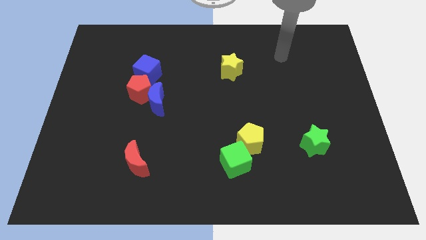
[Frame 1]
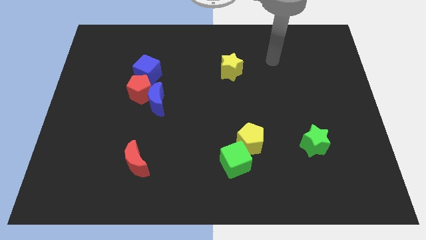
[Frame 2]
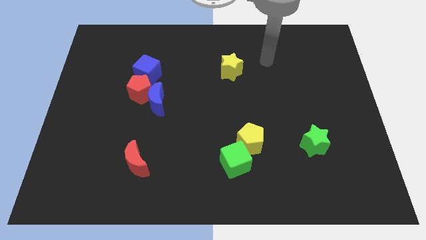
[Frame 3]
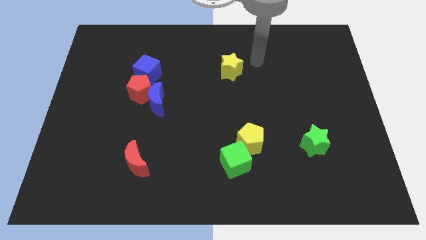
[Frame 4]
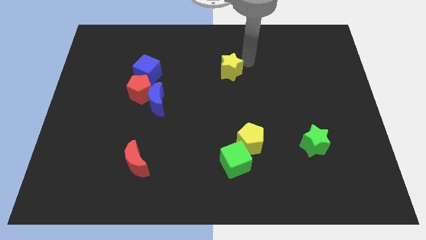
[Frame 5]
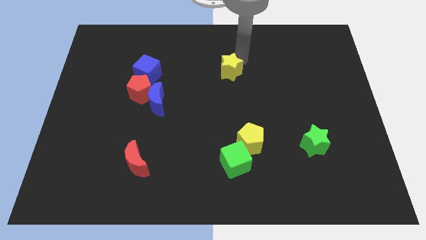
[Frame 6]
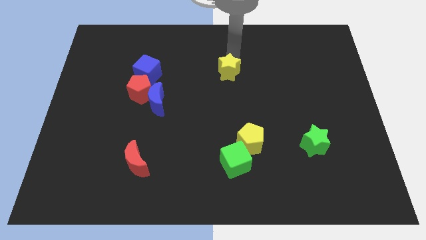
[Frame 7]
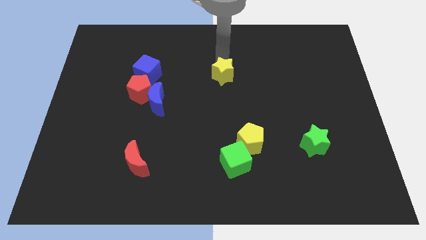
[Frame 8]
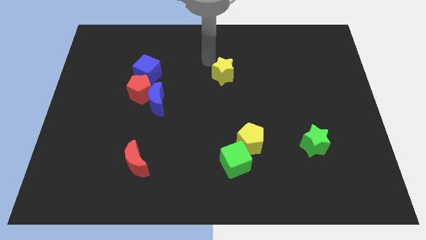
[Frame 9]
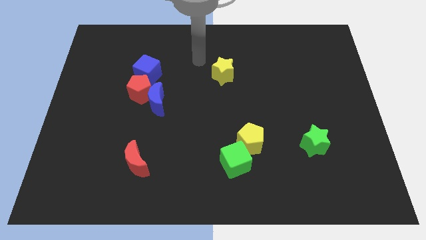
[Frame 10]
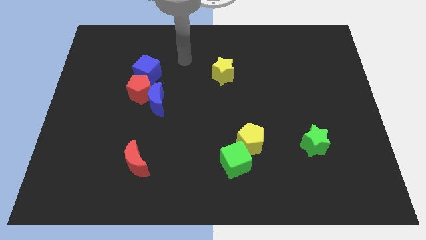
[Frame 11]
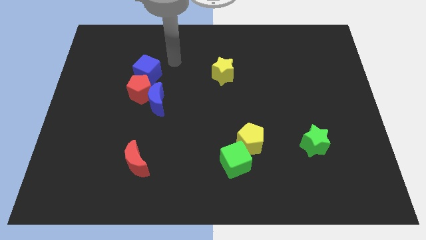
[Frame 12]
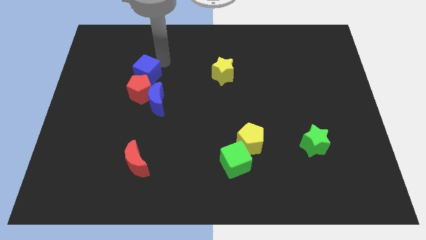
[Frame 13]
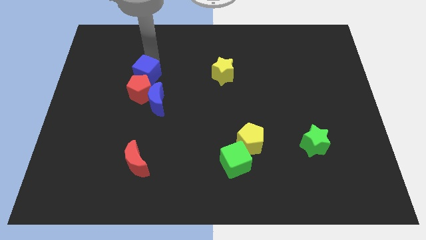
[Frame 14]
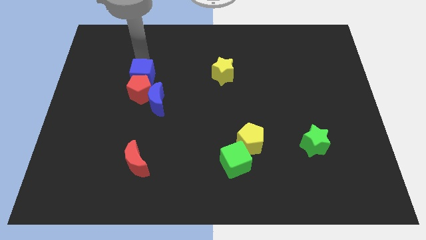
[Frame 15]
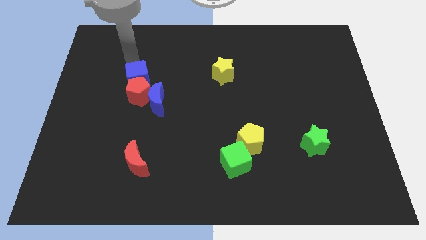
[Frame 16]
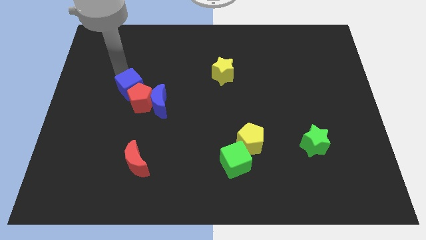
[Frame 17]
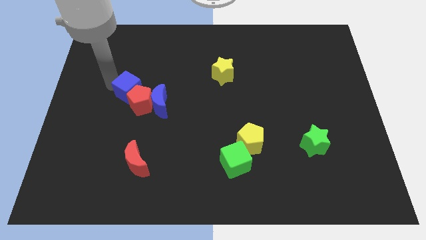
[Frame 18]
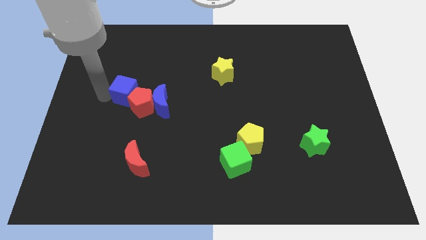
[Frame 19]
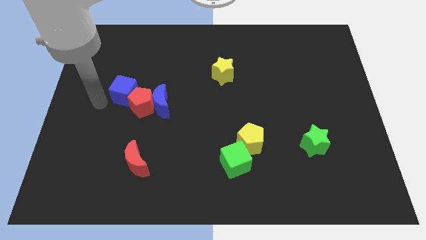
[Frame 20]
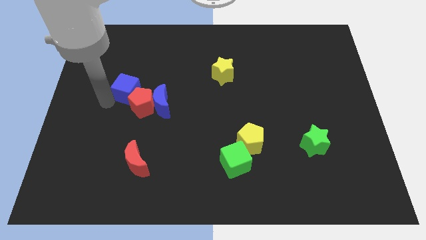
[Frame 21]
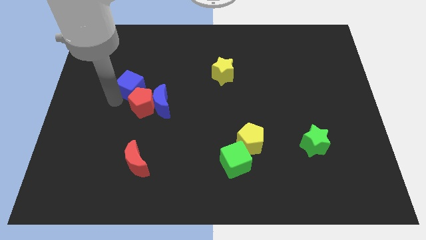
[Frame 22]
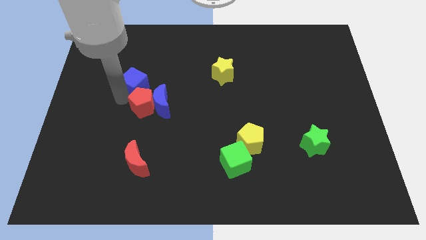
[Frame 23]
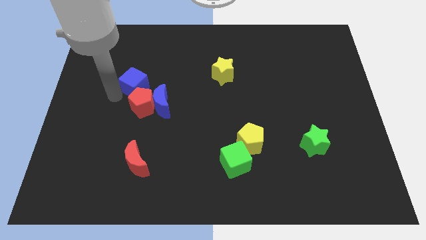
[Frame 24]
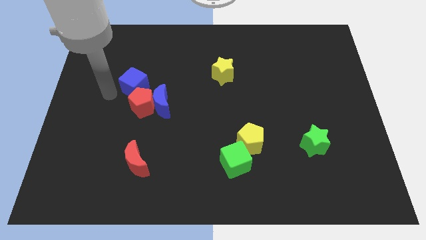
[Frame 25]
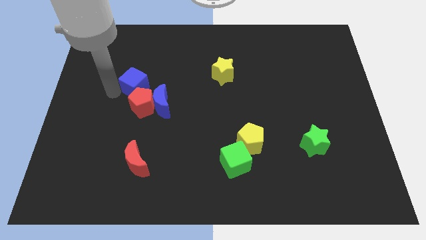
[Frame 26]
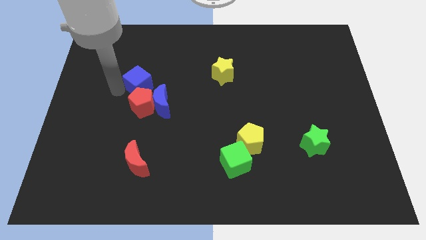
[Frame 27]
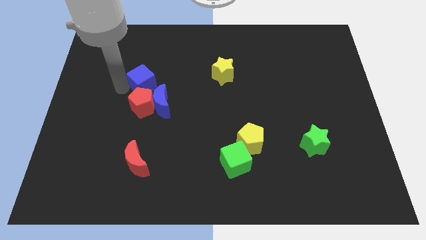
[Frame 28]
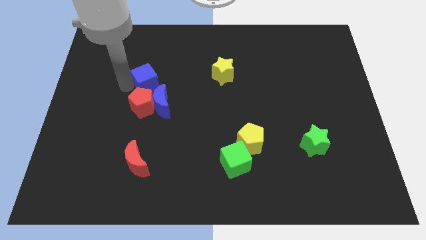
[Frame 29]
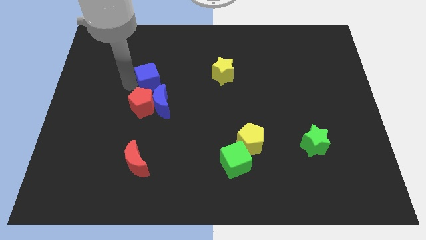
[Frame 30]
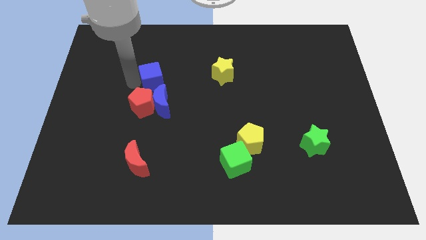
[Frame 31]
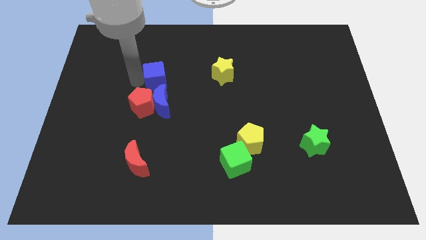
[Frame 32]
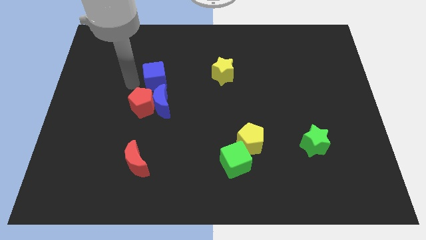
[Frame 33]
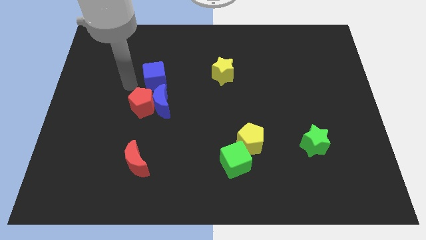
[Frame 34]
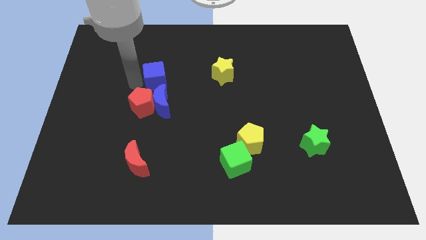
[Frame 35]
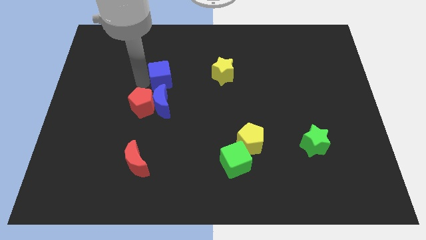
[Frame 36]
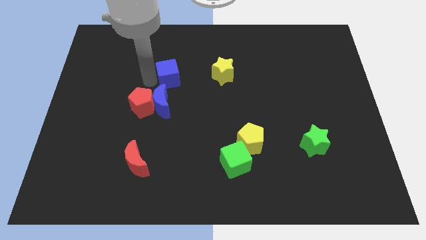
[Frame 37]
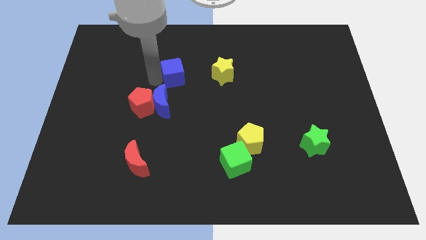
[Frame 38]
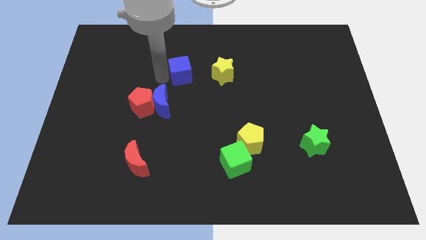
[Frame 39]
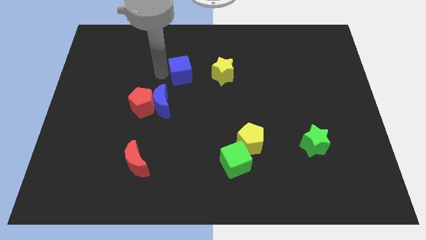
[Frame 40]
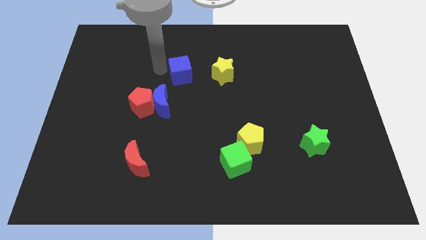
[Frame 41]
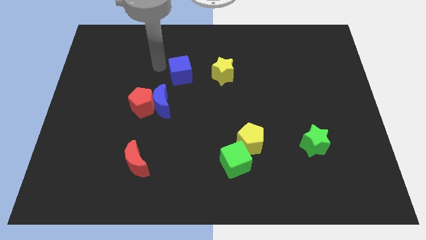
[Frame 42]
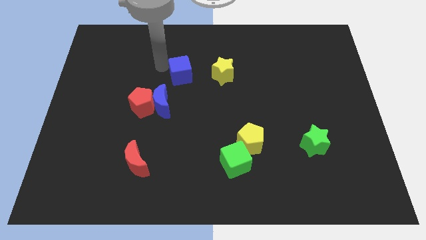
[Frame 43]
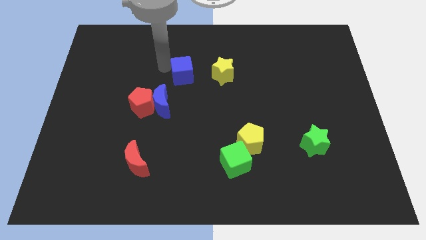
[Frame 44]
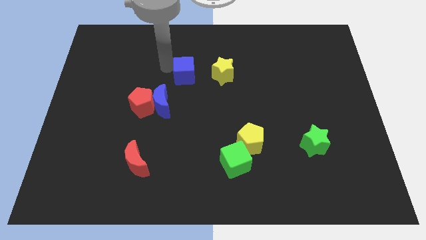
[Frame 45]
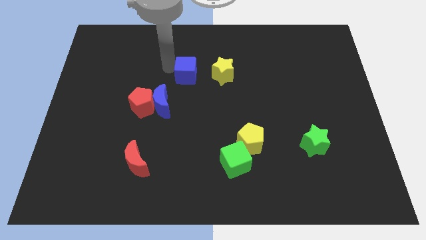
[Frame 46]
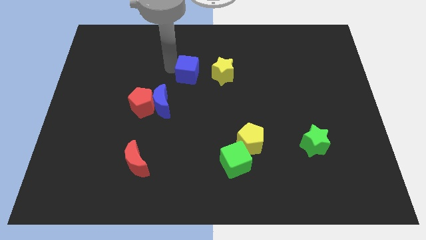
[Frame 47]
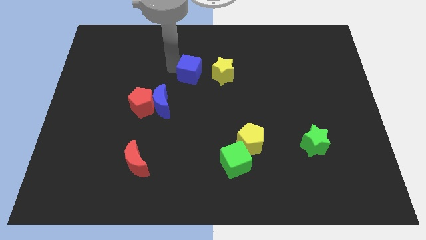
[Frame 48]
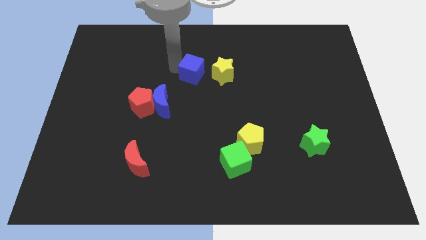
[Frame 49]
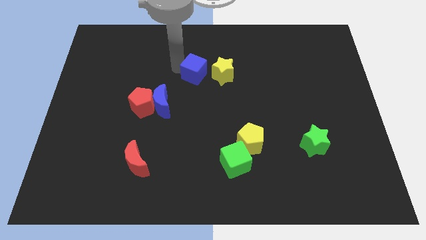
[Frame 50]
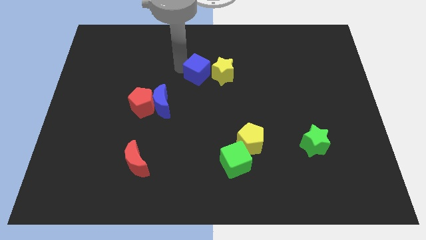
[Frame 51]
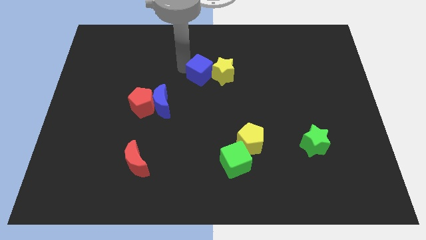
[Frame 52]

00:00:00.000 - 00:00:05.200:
push the blue cube to the bottom left side of the yellow star

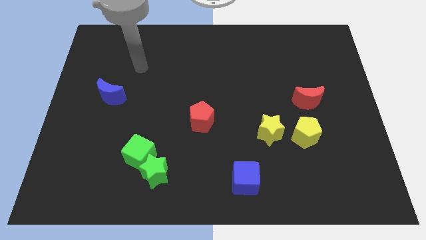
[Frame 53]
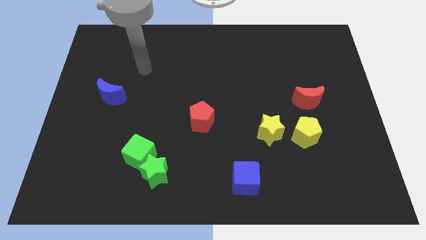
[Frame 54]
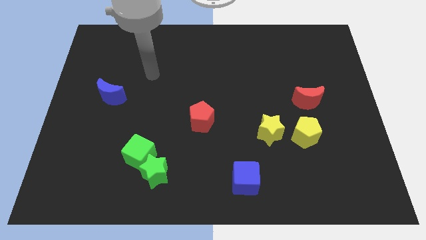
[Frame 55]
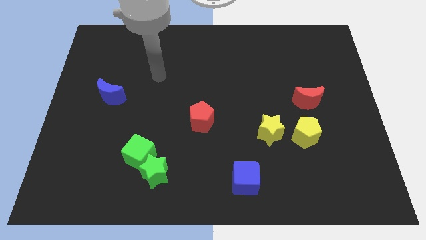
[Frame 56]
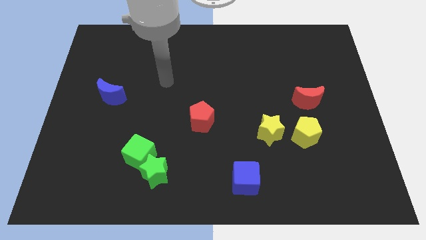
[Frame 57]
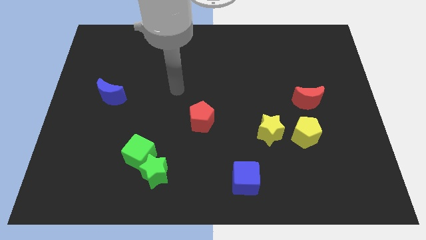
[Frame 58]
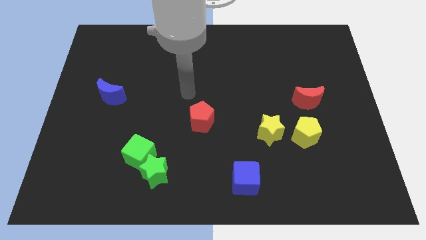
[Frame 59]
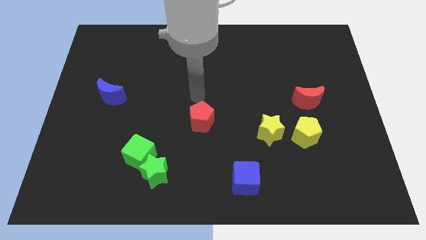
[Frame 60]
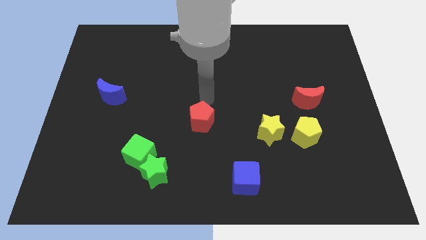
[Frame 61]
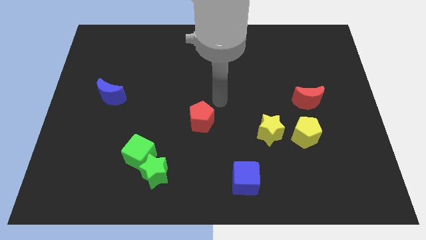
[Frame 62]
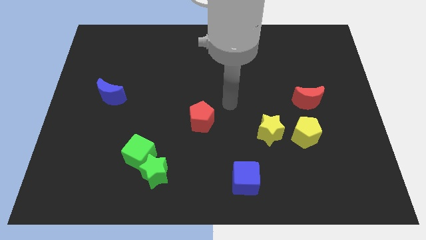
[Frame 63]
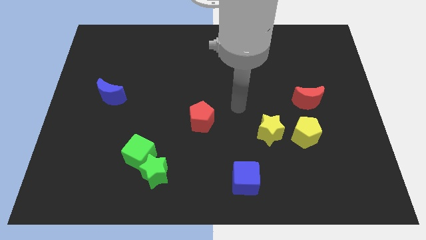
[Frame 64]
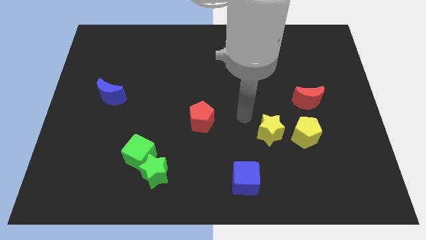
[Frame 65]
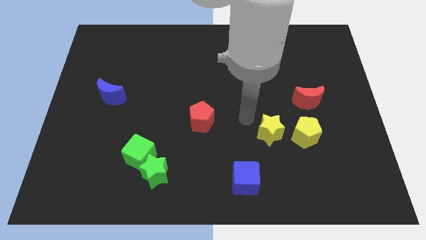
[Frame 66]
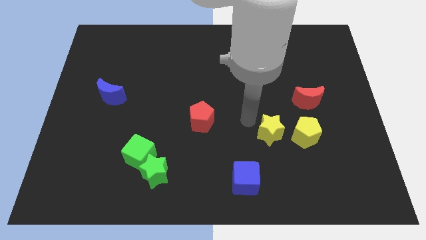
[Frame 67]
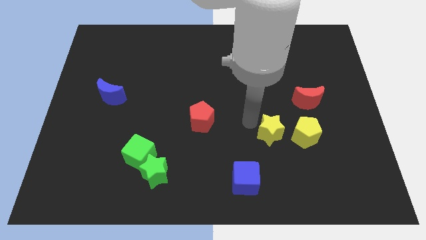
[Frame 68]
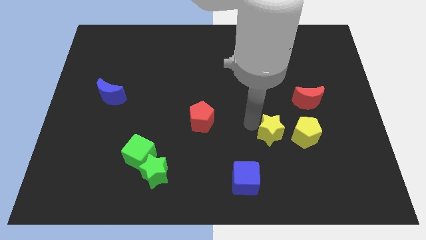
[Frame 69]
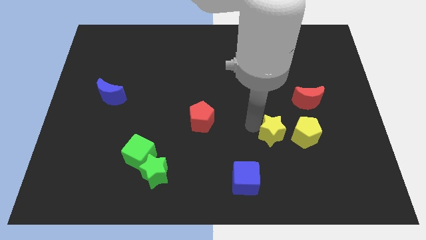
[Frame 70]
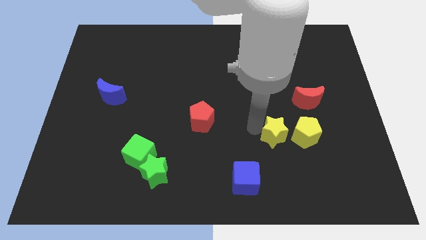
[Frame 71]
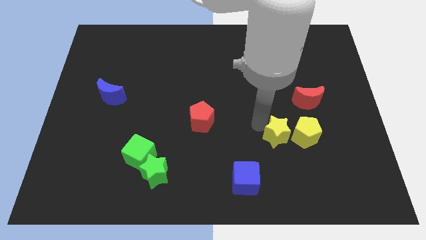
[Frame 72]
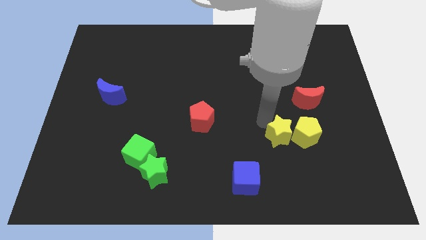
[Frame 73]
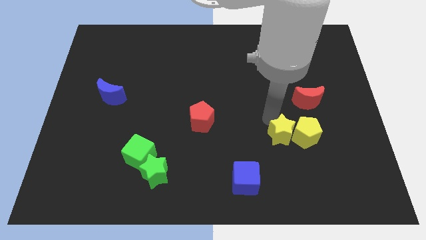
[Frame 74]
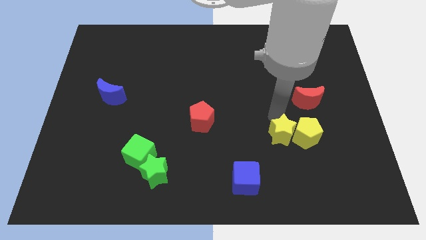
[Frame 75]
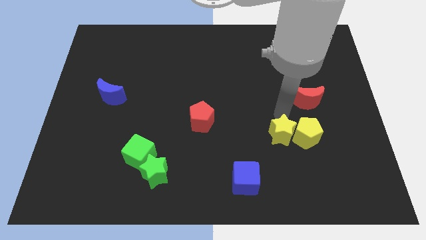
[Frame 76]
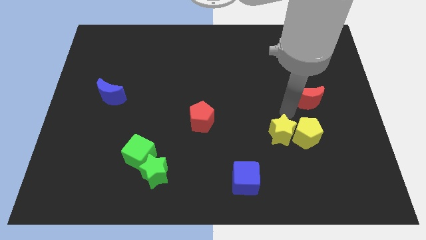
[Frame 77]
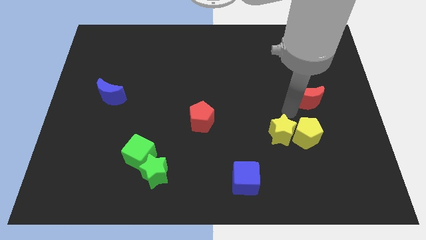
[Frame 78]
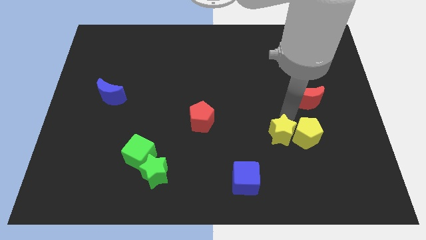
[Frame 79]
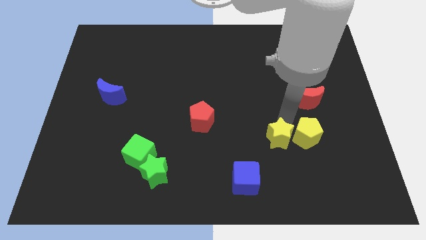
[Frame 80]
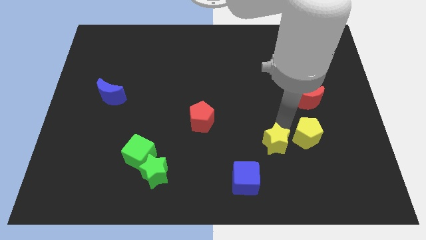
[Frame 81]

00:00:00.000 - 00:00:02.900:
push the yellow star to the top right side of the blue cube

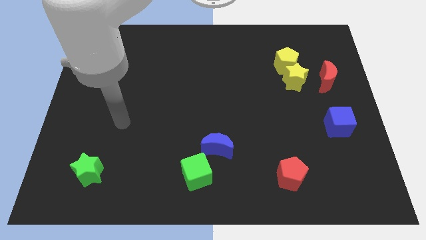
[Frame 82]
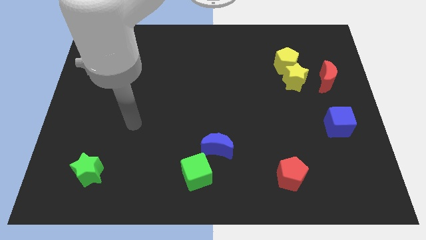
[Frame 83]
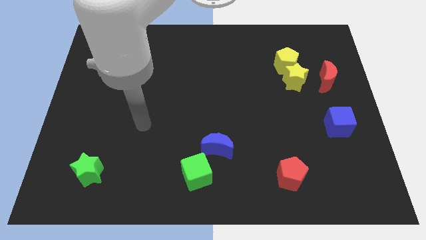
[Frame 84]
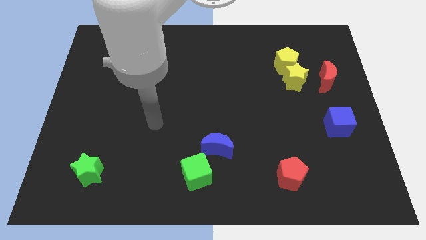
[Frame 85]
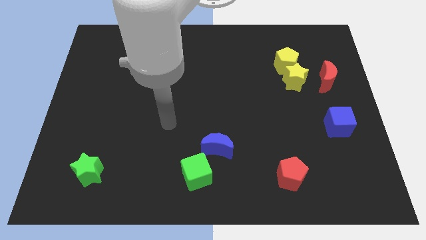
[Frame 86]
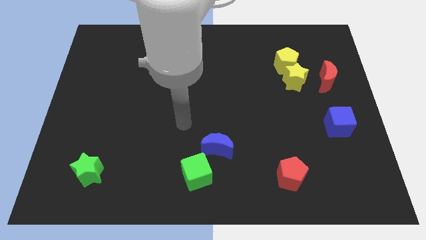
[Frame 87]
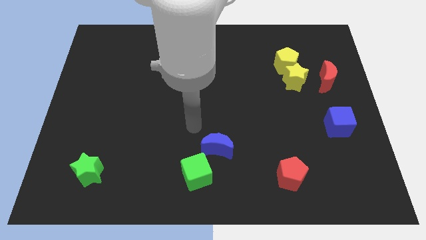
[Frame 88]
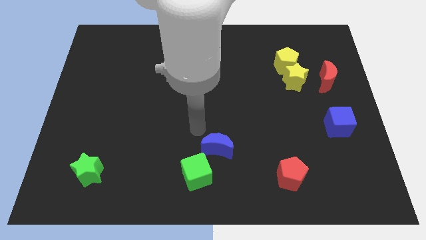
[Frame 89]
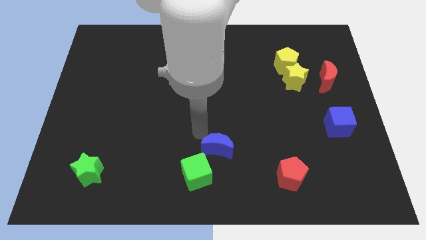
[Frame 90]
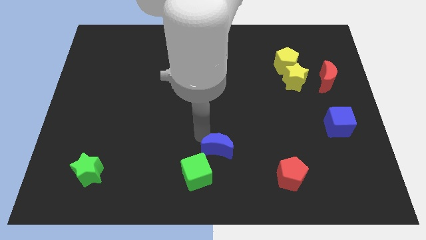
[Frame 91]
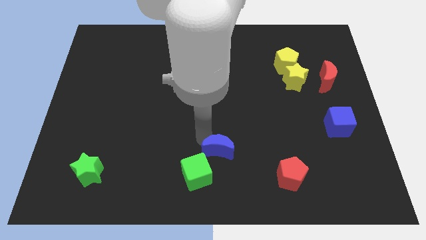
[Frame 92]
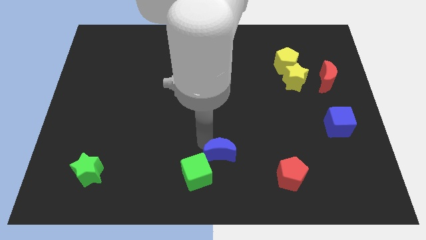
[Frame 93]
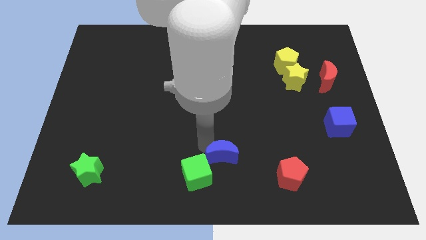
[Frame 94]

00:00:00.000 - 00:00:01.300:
move the blue moon to the right of the green cube
